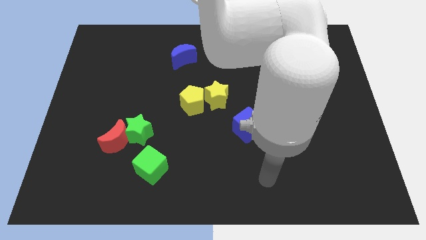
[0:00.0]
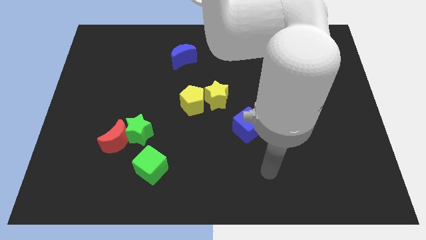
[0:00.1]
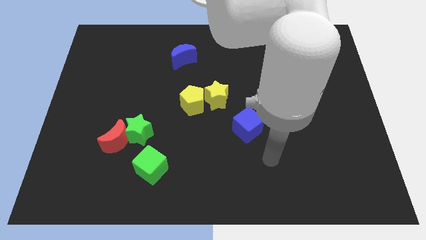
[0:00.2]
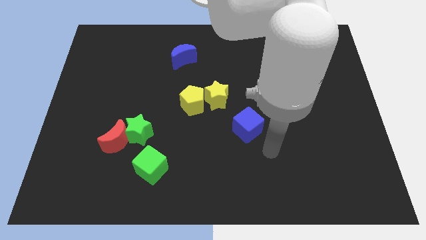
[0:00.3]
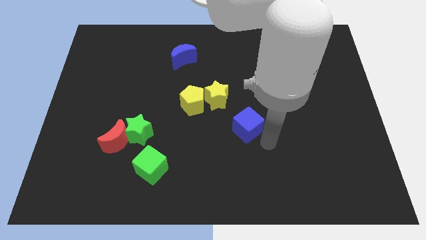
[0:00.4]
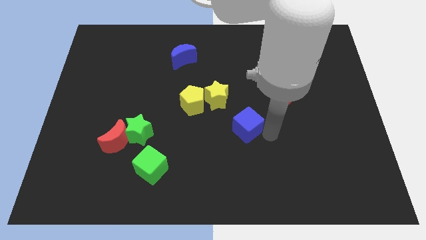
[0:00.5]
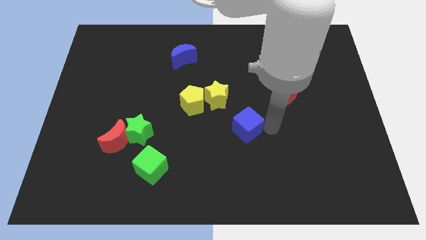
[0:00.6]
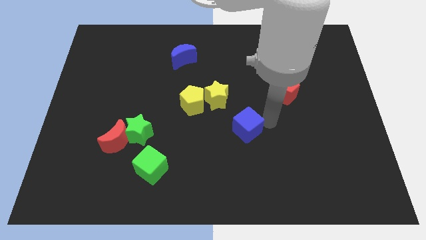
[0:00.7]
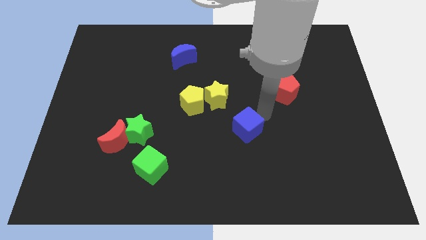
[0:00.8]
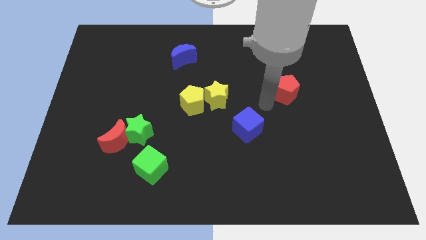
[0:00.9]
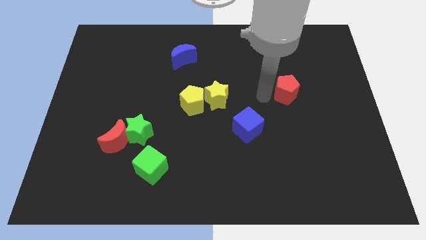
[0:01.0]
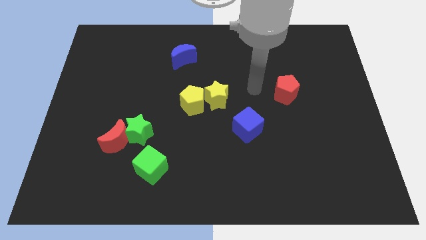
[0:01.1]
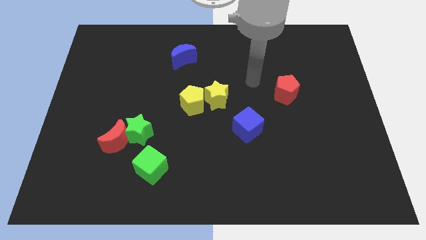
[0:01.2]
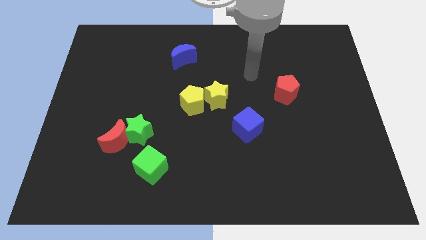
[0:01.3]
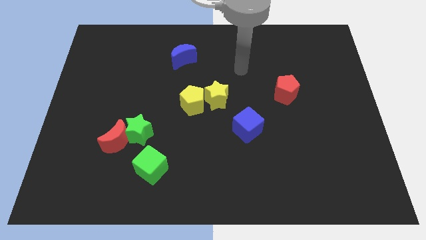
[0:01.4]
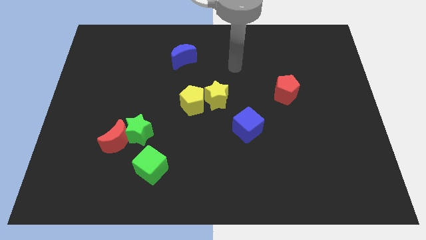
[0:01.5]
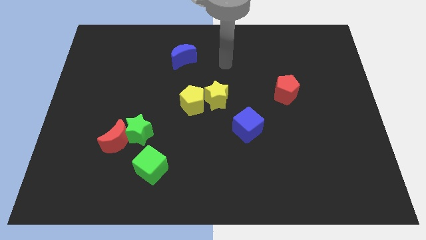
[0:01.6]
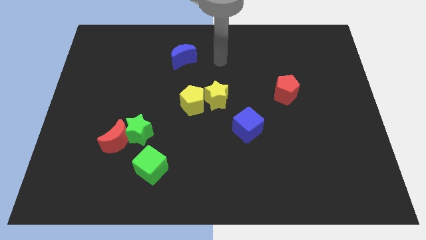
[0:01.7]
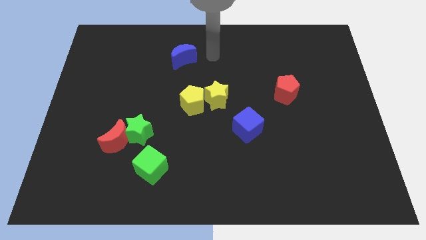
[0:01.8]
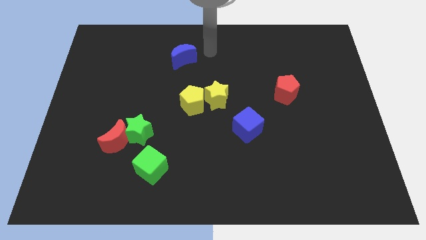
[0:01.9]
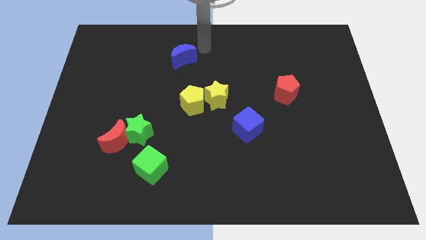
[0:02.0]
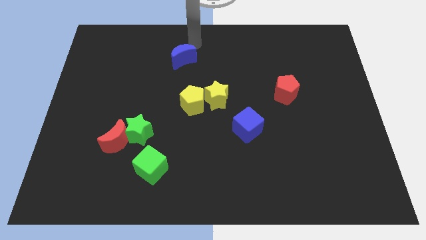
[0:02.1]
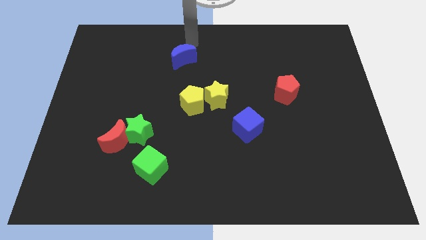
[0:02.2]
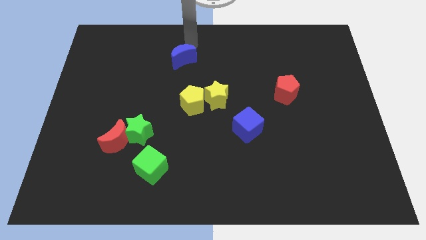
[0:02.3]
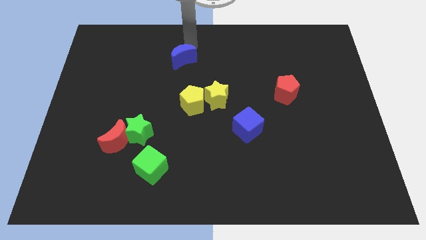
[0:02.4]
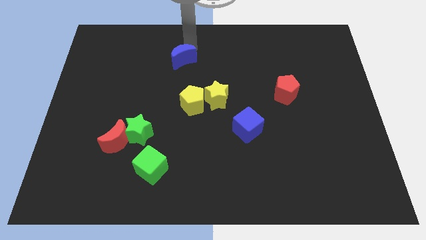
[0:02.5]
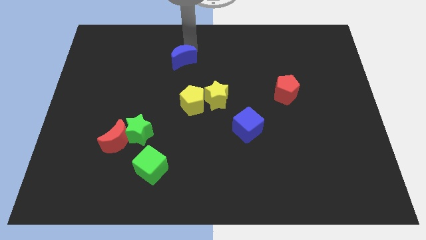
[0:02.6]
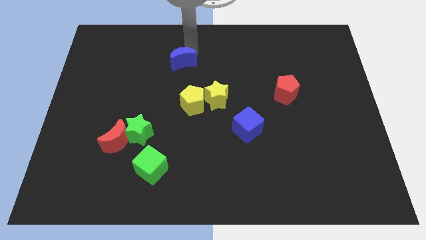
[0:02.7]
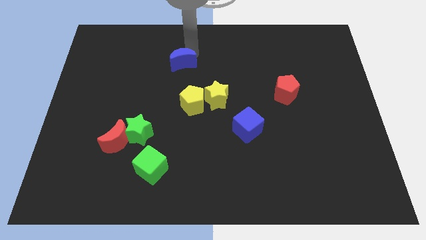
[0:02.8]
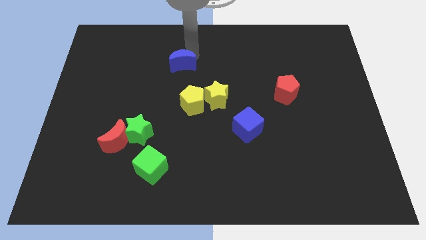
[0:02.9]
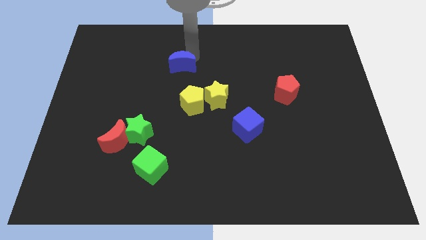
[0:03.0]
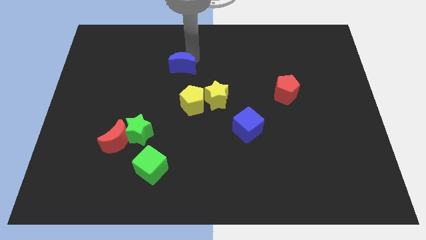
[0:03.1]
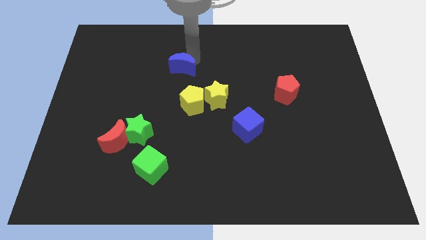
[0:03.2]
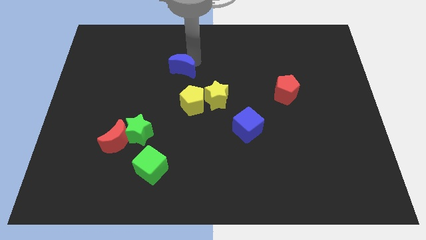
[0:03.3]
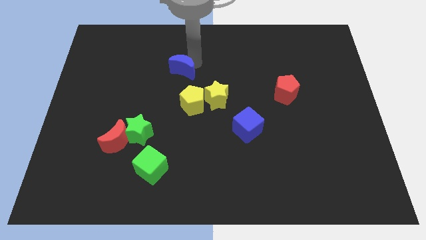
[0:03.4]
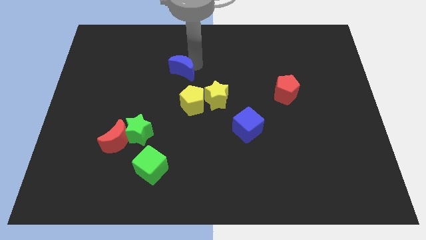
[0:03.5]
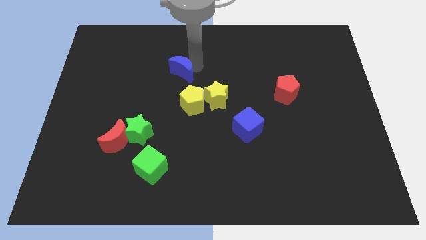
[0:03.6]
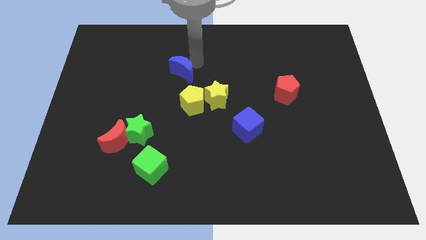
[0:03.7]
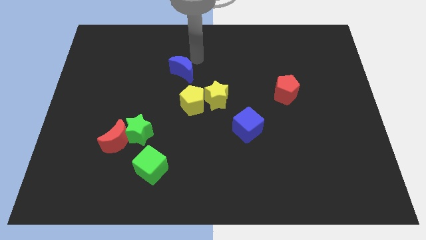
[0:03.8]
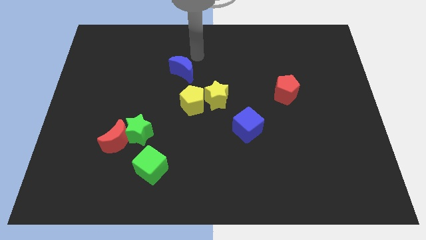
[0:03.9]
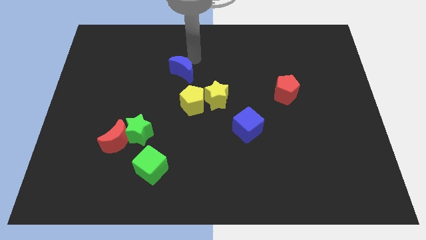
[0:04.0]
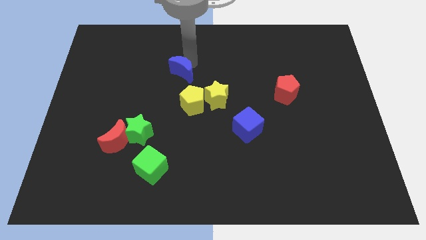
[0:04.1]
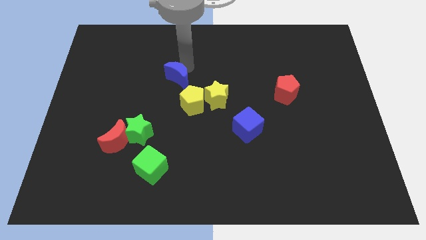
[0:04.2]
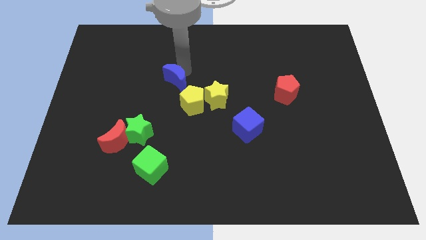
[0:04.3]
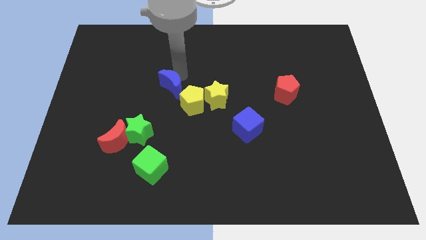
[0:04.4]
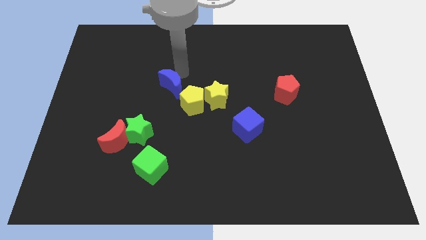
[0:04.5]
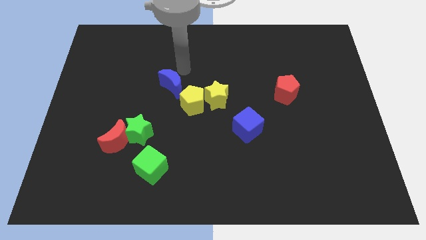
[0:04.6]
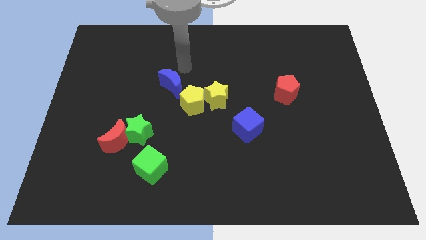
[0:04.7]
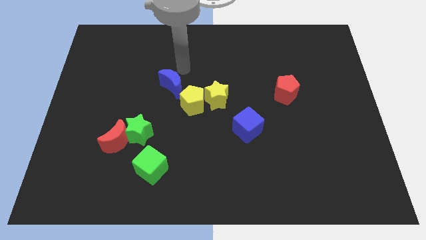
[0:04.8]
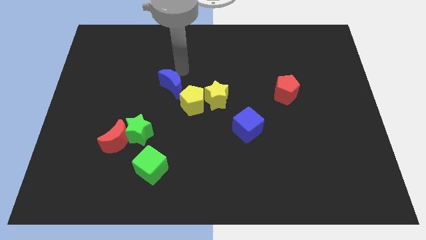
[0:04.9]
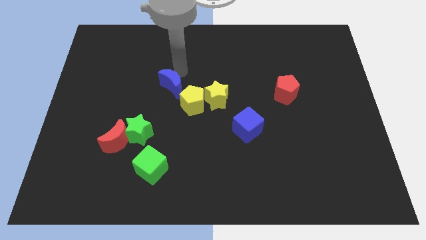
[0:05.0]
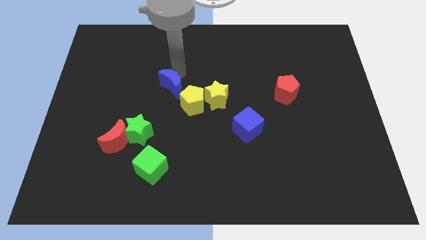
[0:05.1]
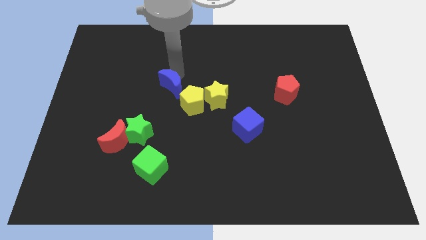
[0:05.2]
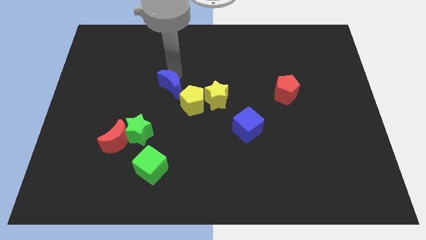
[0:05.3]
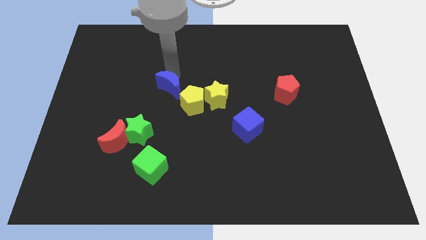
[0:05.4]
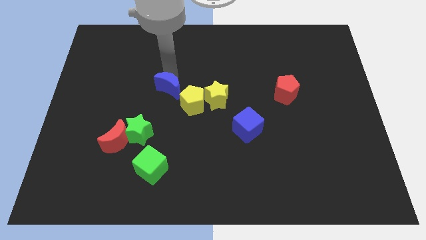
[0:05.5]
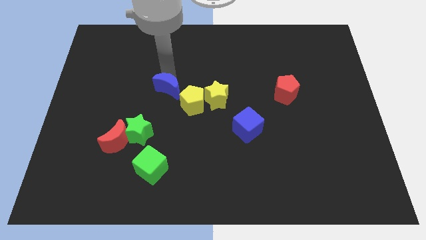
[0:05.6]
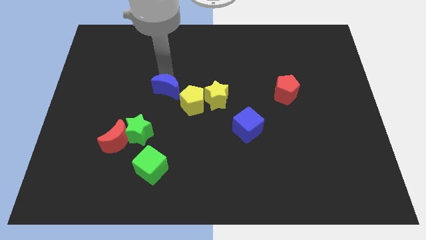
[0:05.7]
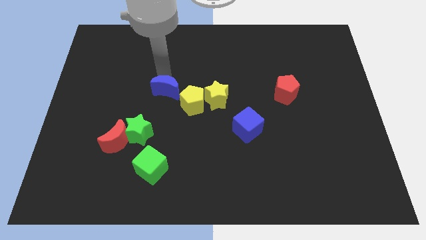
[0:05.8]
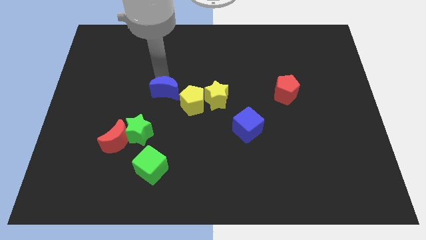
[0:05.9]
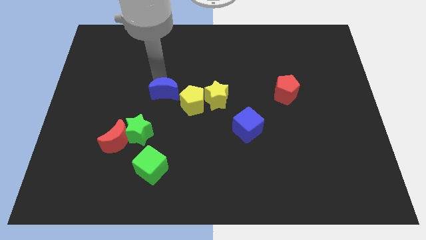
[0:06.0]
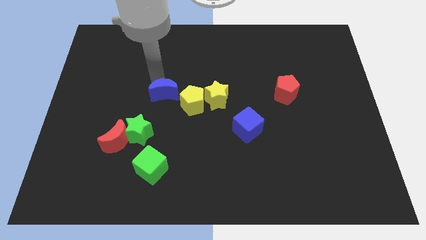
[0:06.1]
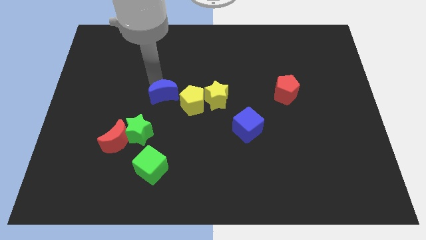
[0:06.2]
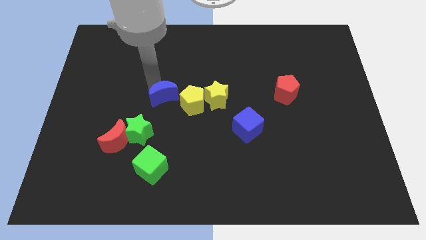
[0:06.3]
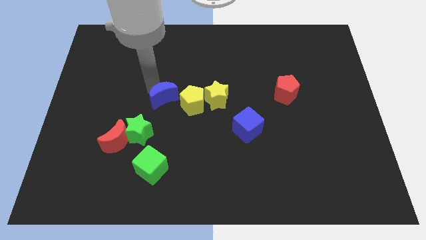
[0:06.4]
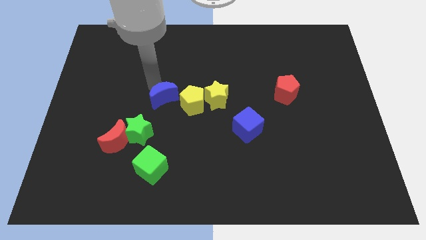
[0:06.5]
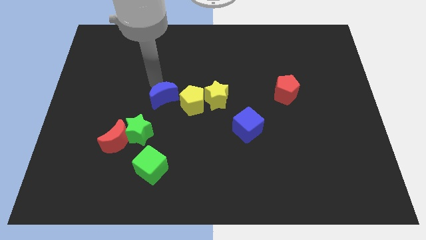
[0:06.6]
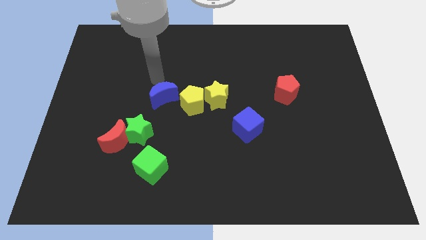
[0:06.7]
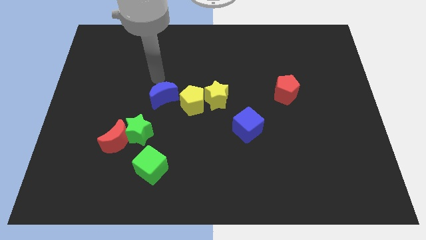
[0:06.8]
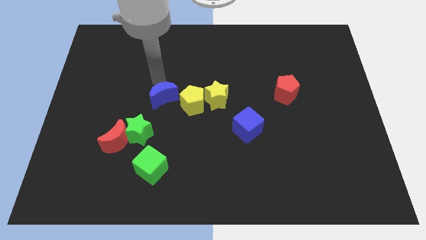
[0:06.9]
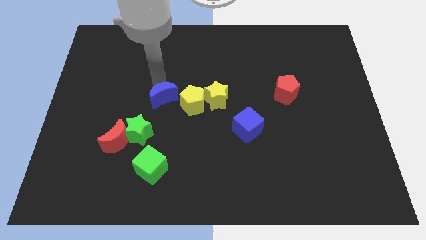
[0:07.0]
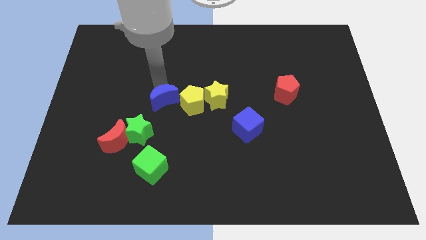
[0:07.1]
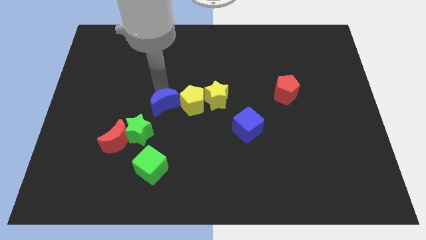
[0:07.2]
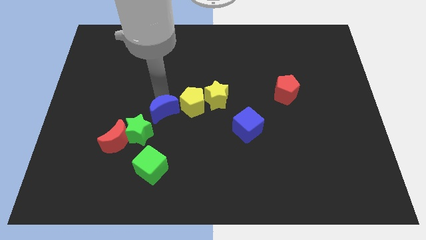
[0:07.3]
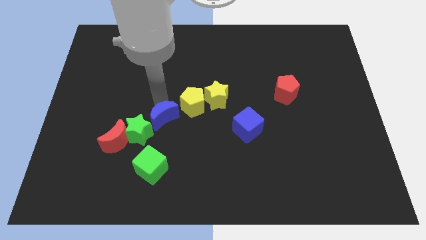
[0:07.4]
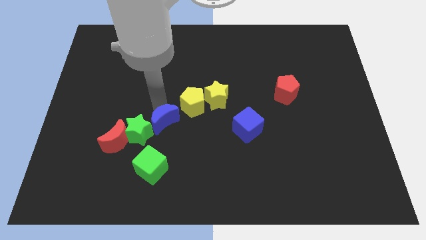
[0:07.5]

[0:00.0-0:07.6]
push the blue moon down

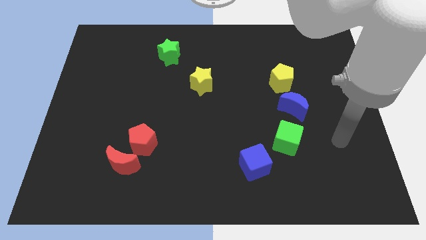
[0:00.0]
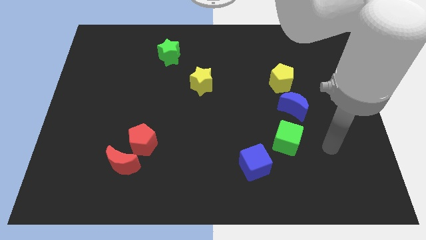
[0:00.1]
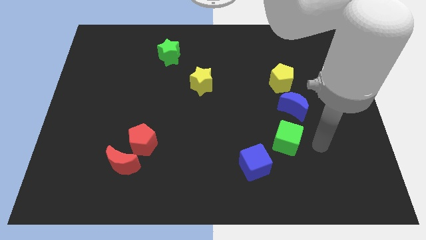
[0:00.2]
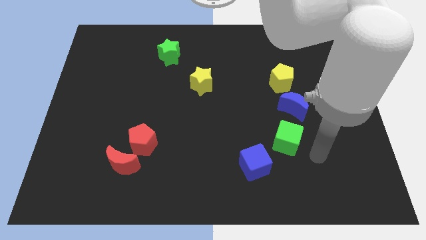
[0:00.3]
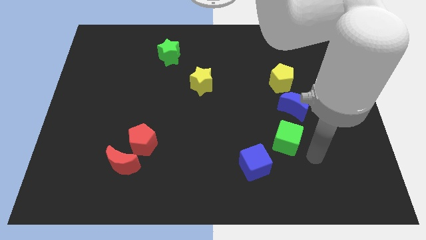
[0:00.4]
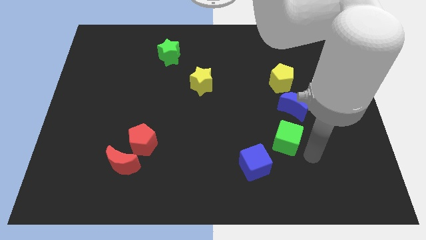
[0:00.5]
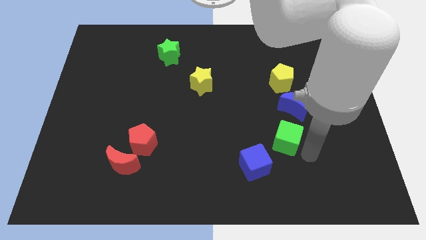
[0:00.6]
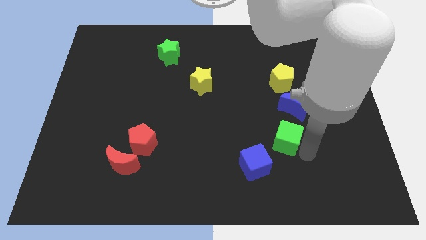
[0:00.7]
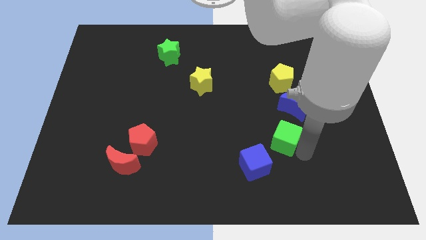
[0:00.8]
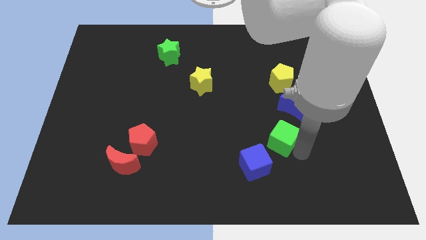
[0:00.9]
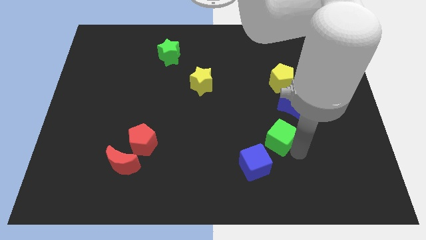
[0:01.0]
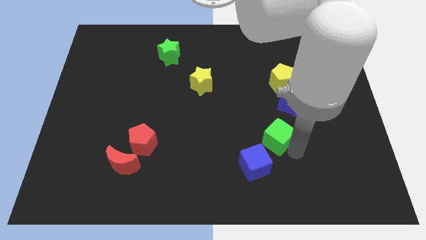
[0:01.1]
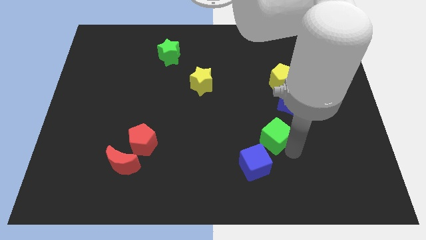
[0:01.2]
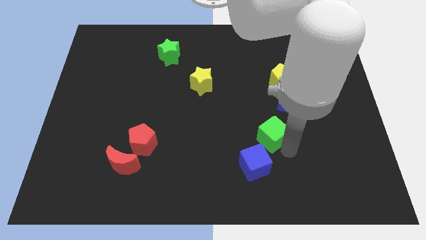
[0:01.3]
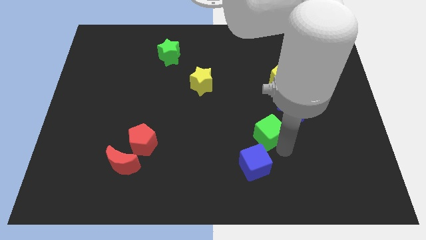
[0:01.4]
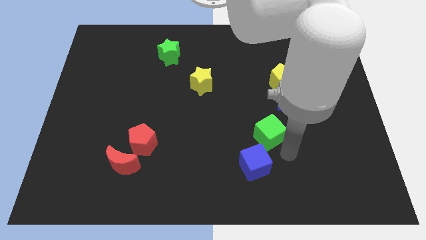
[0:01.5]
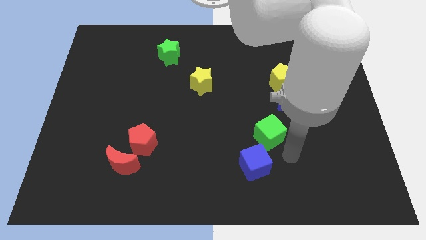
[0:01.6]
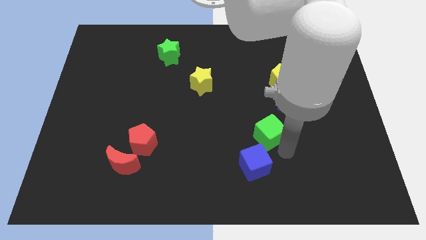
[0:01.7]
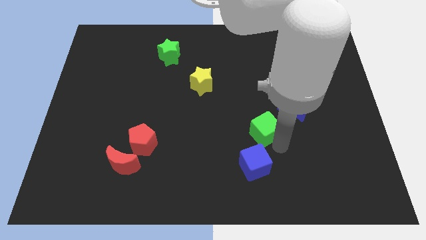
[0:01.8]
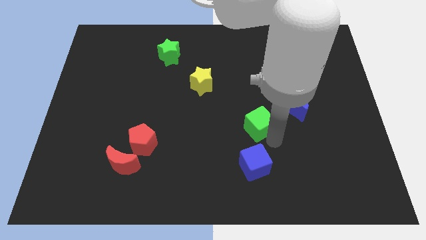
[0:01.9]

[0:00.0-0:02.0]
slightly slide the green cube upwards and to the left diagonally
